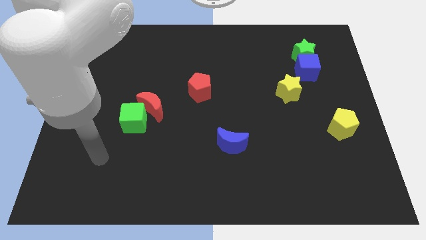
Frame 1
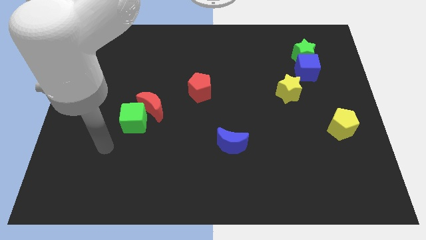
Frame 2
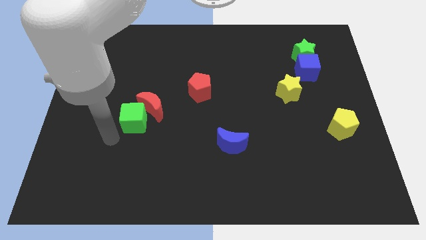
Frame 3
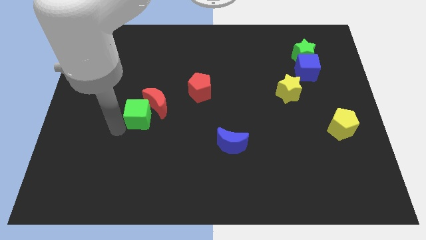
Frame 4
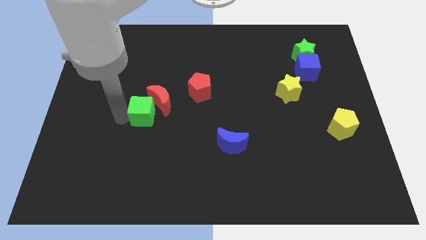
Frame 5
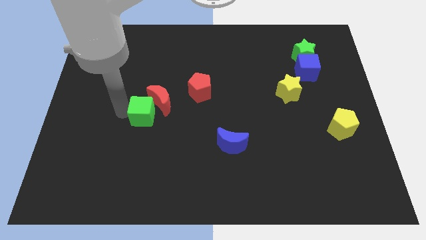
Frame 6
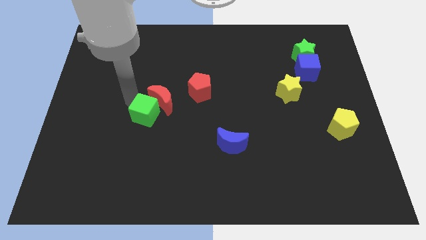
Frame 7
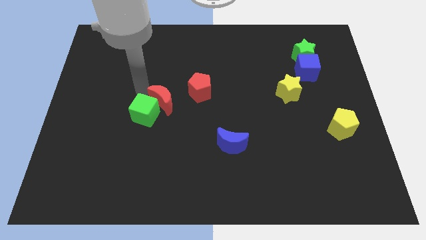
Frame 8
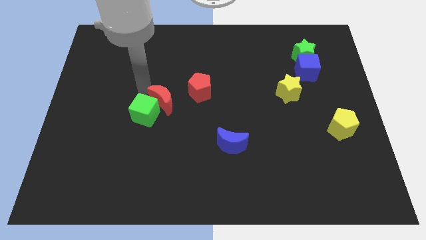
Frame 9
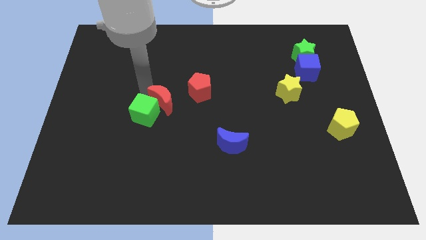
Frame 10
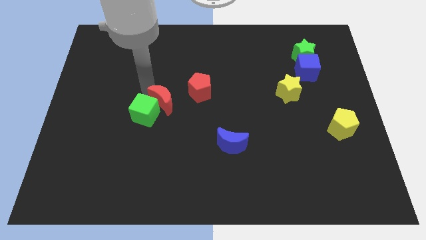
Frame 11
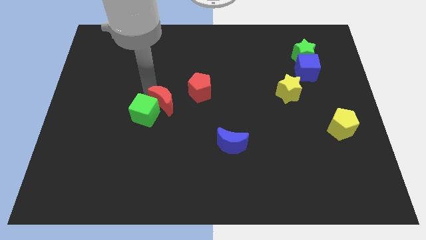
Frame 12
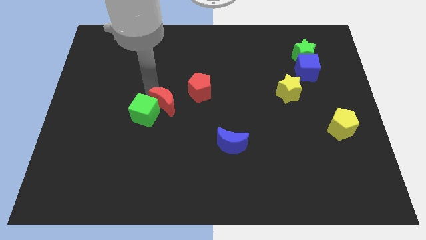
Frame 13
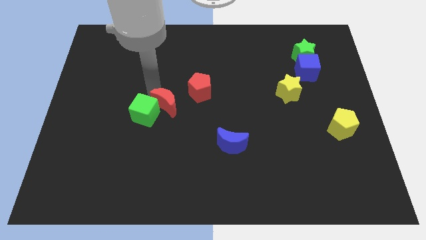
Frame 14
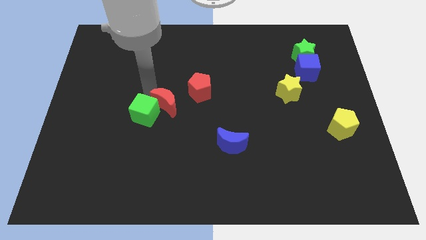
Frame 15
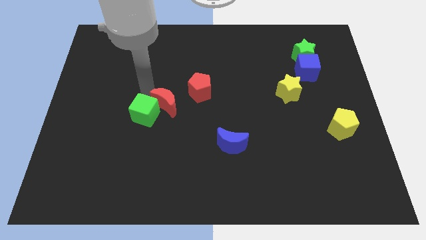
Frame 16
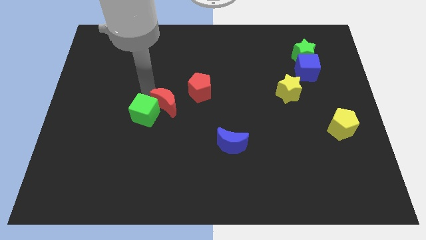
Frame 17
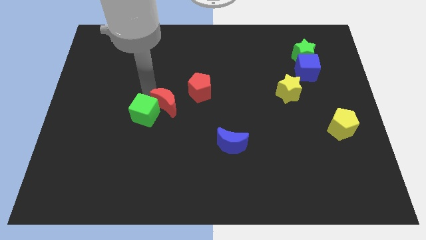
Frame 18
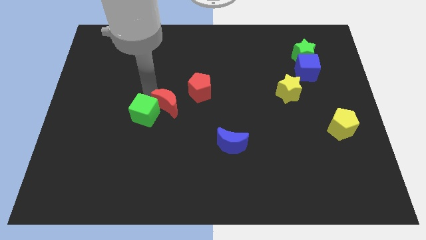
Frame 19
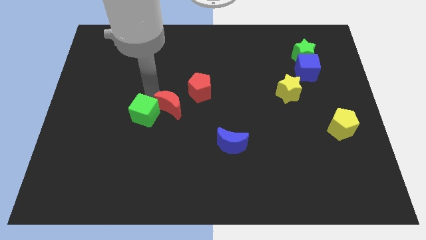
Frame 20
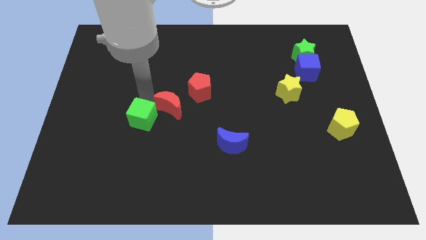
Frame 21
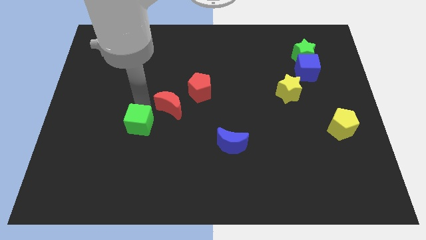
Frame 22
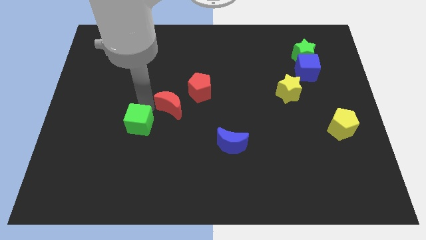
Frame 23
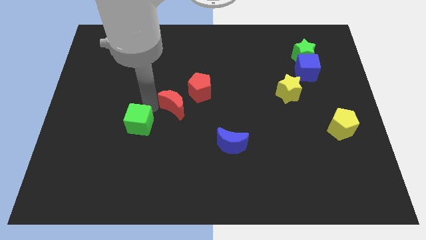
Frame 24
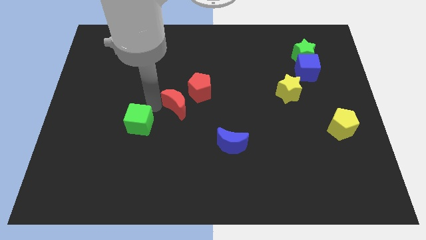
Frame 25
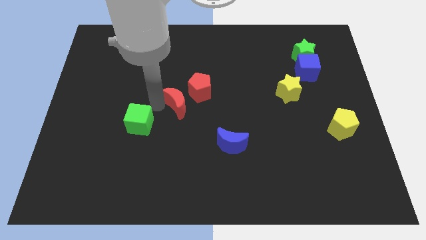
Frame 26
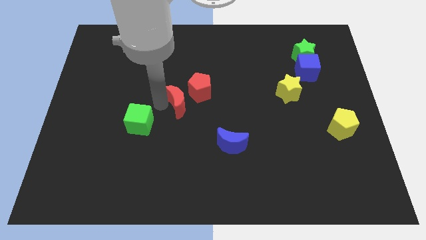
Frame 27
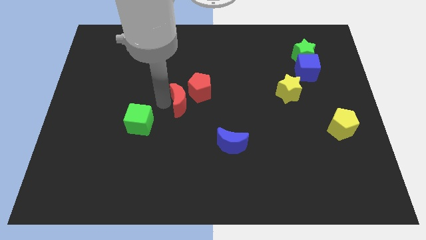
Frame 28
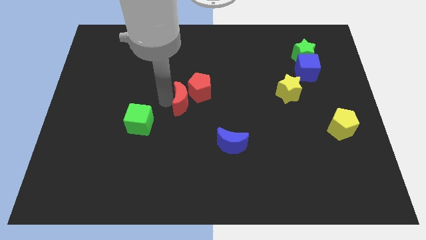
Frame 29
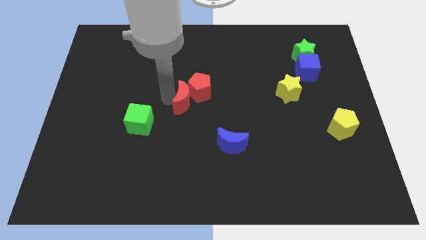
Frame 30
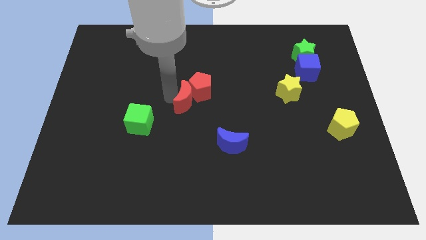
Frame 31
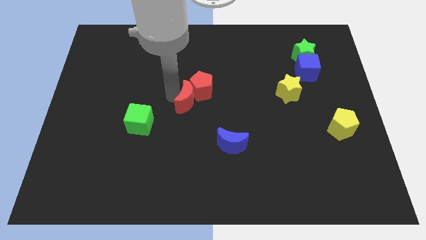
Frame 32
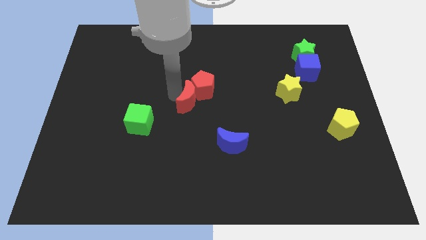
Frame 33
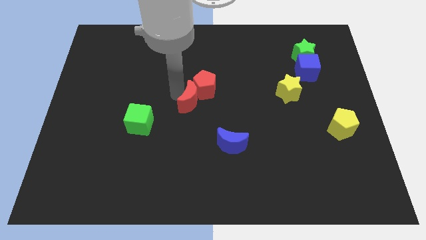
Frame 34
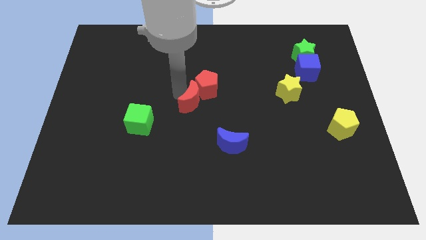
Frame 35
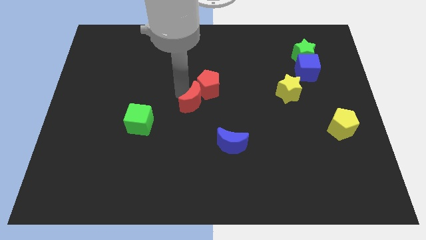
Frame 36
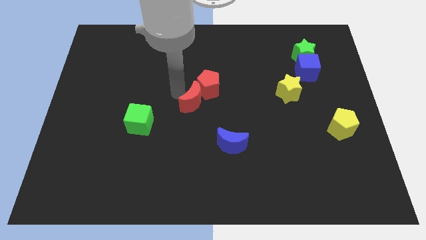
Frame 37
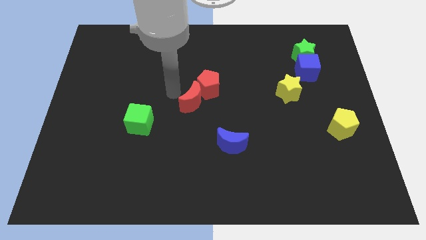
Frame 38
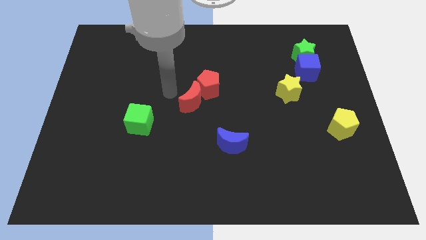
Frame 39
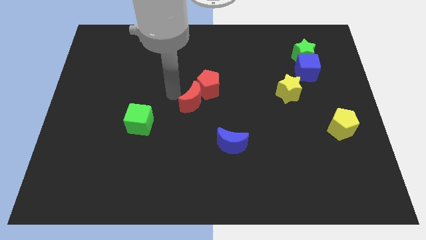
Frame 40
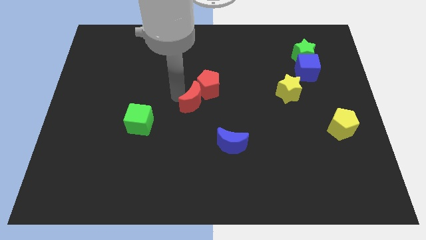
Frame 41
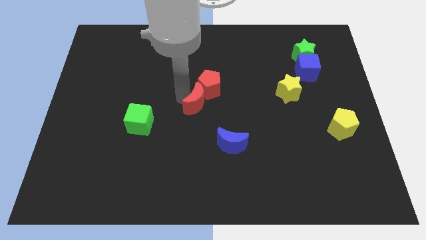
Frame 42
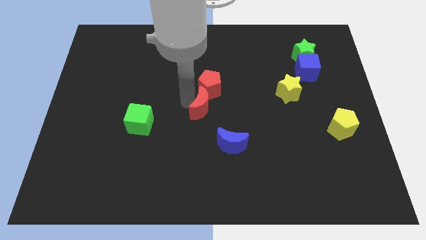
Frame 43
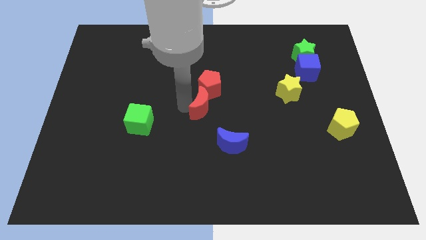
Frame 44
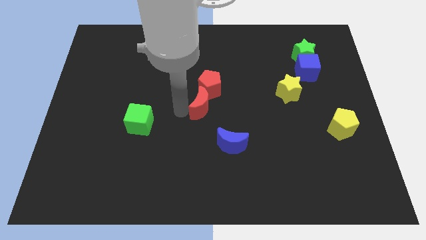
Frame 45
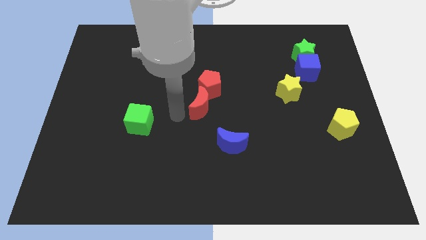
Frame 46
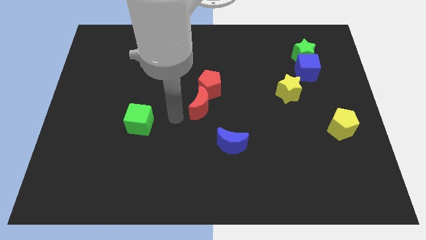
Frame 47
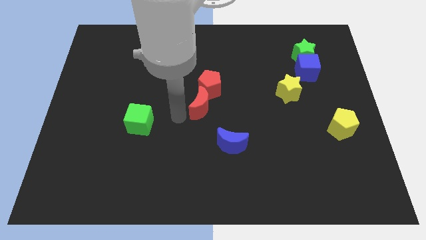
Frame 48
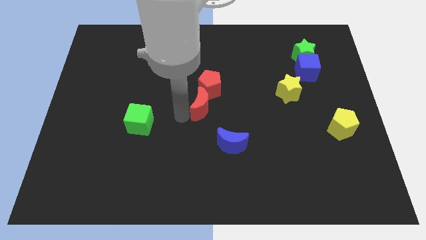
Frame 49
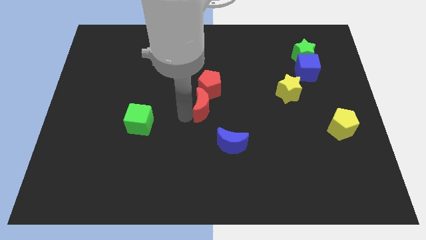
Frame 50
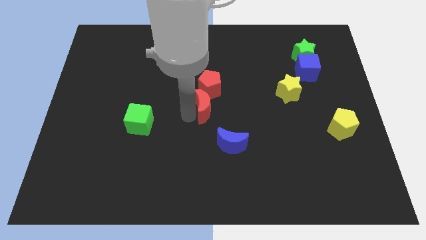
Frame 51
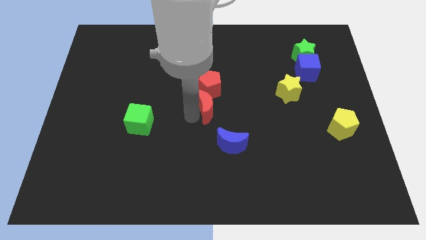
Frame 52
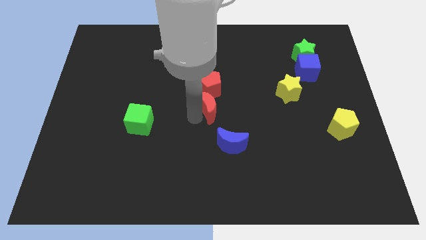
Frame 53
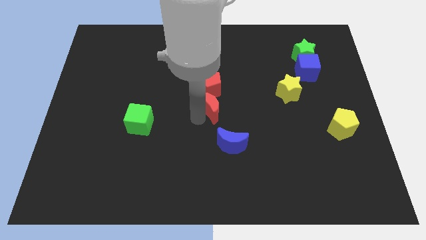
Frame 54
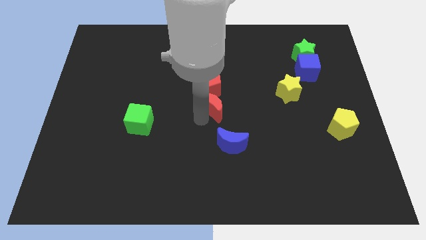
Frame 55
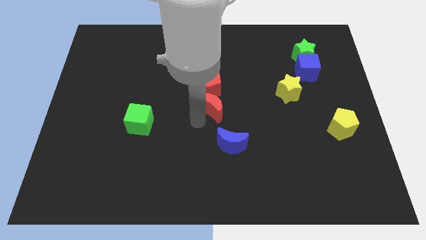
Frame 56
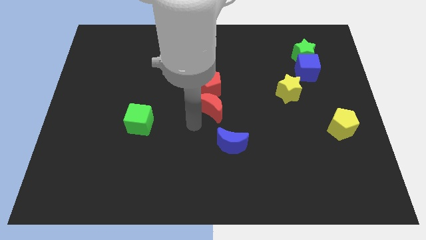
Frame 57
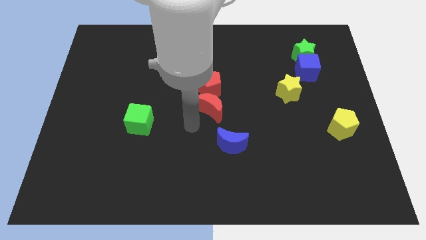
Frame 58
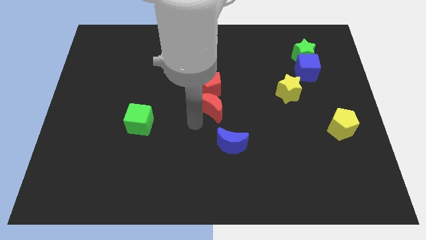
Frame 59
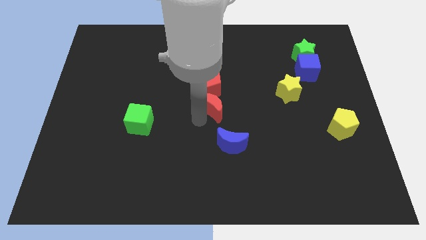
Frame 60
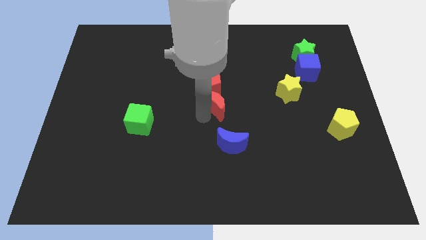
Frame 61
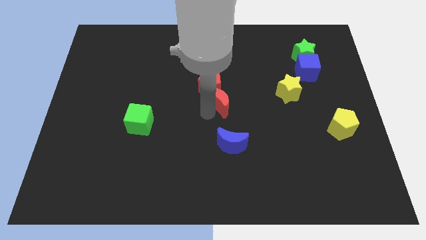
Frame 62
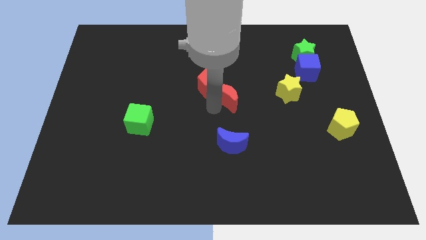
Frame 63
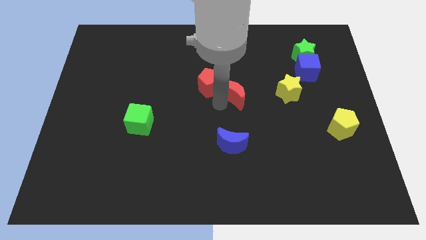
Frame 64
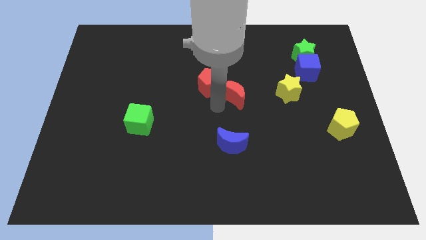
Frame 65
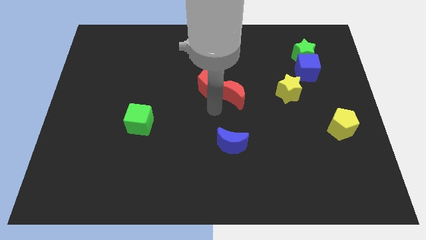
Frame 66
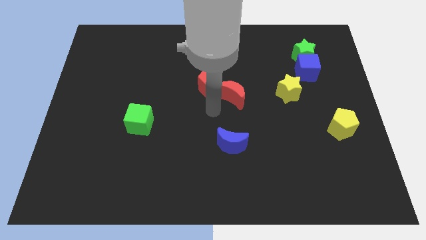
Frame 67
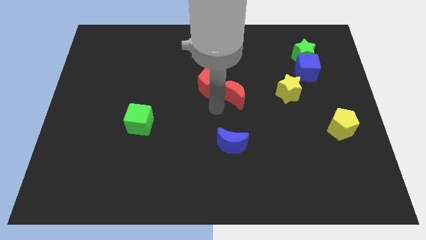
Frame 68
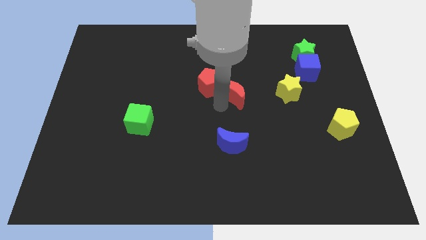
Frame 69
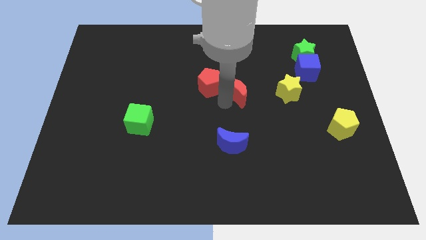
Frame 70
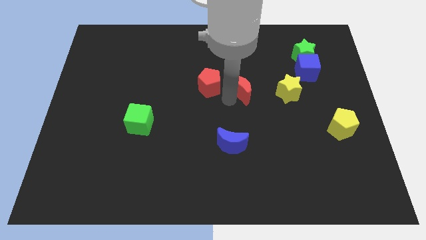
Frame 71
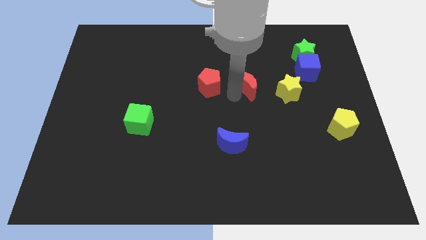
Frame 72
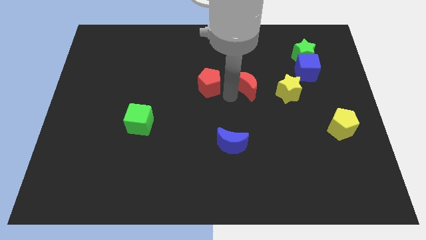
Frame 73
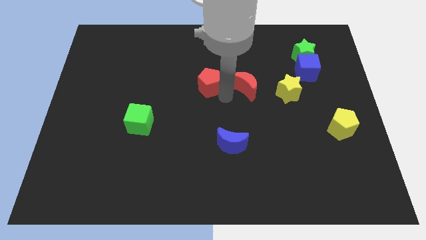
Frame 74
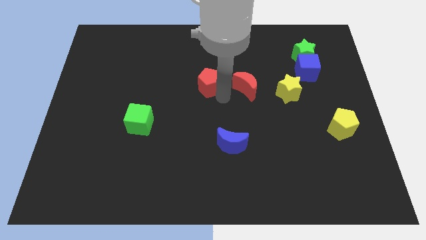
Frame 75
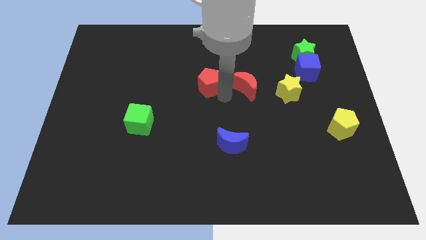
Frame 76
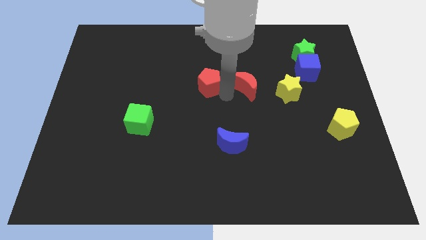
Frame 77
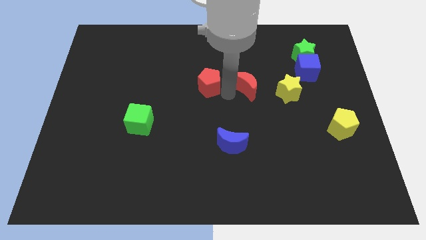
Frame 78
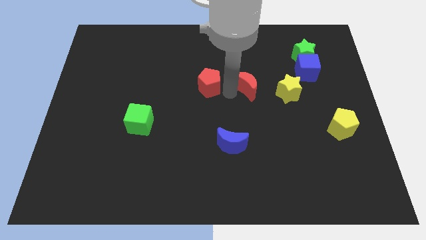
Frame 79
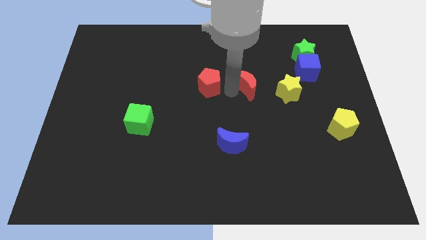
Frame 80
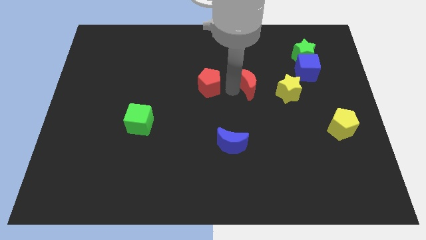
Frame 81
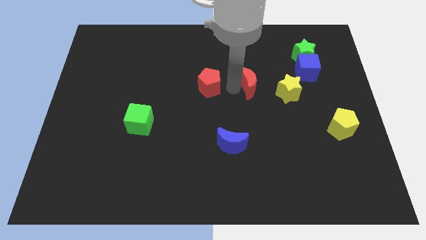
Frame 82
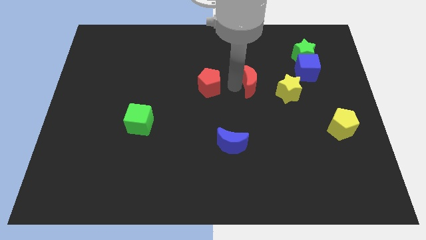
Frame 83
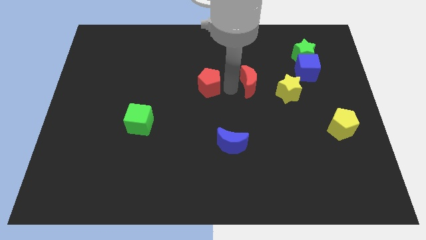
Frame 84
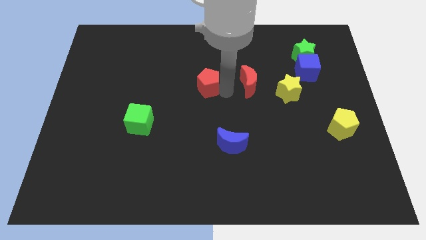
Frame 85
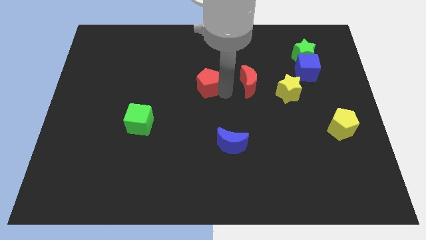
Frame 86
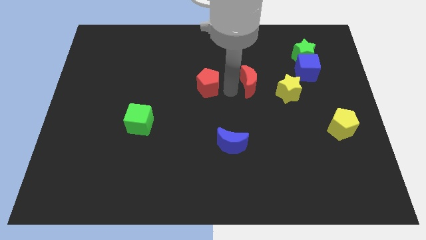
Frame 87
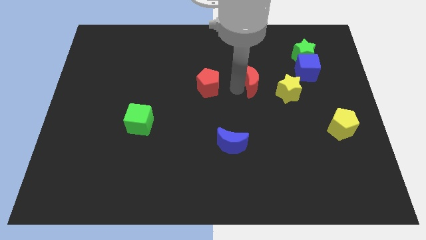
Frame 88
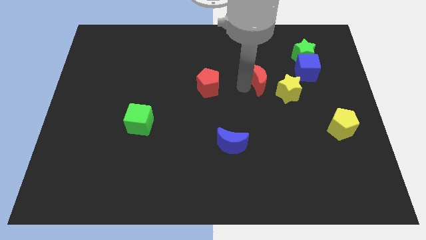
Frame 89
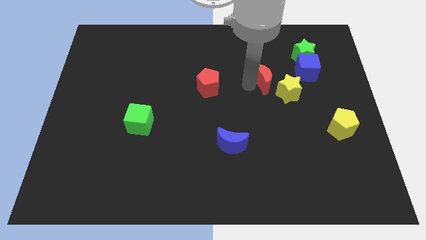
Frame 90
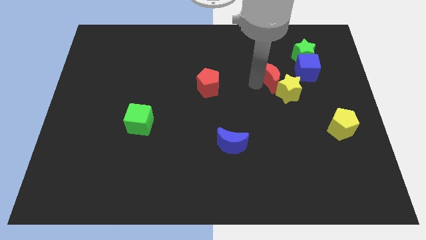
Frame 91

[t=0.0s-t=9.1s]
move the red moon to the bottom left of the green star
